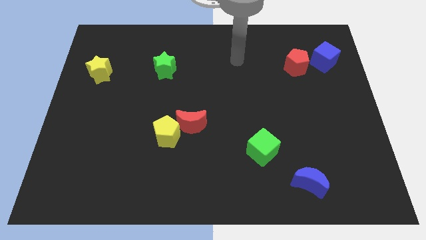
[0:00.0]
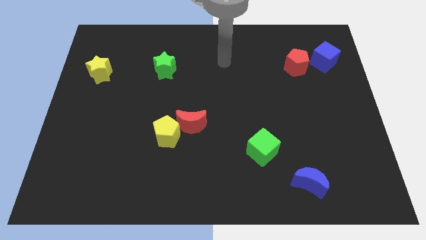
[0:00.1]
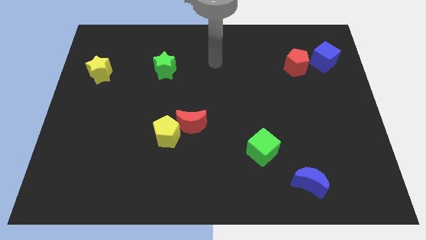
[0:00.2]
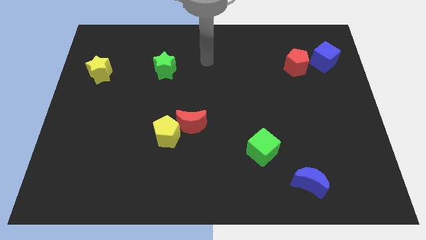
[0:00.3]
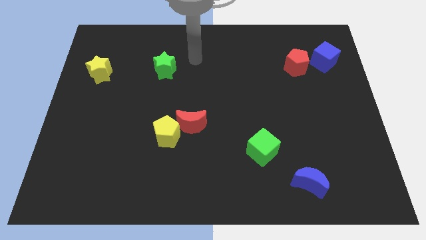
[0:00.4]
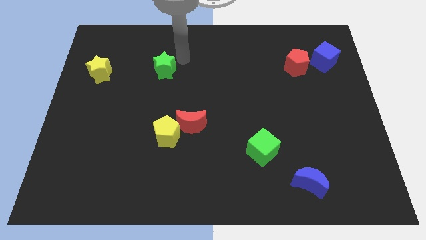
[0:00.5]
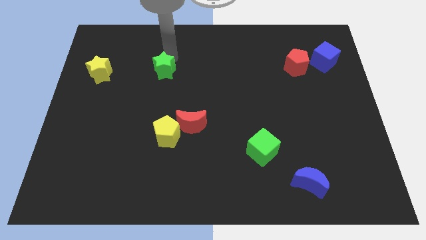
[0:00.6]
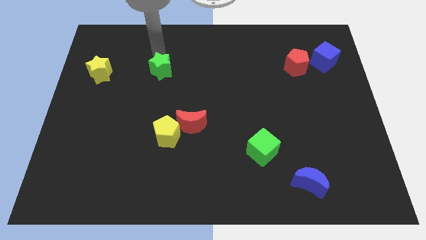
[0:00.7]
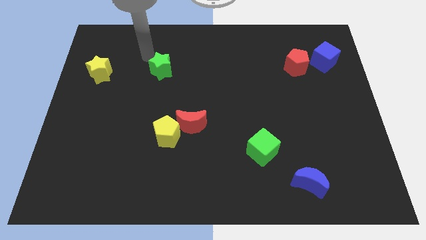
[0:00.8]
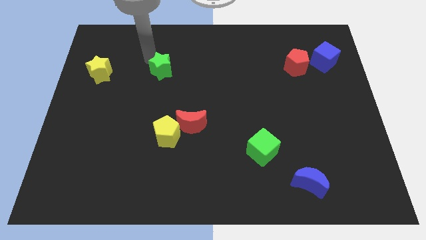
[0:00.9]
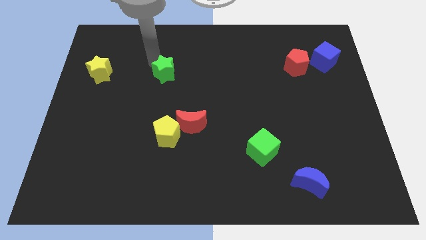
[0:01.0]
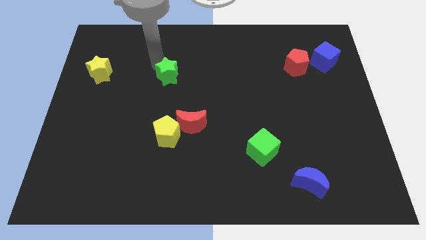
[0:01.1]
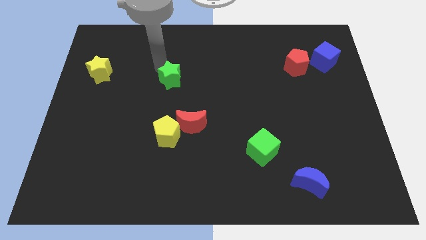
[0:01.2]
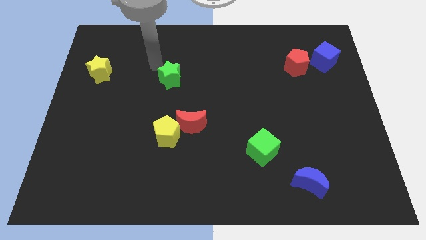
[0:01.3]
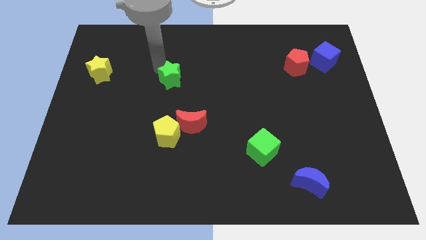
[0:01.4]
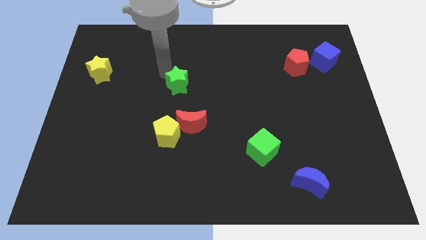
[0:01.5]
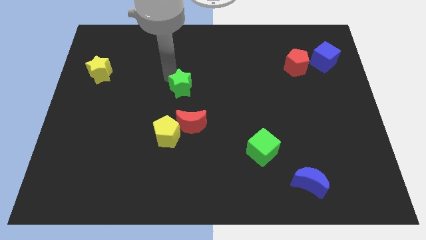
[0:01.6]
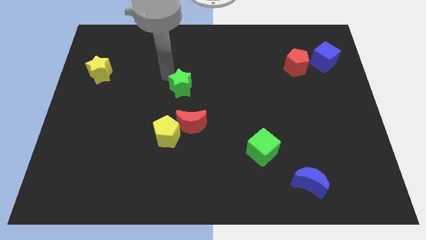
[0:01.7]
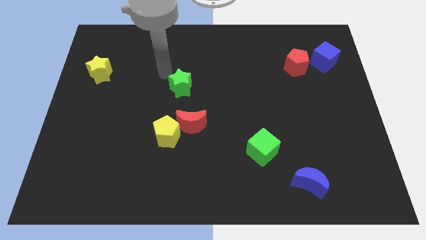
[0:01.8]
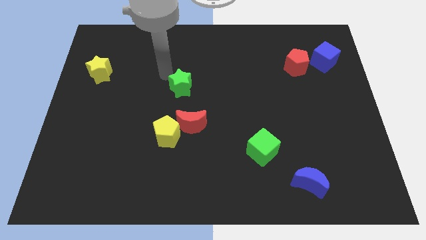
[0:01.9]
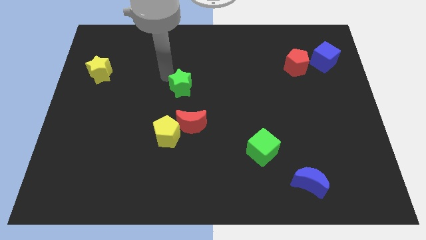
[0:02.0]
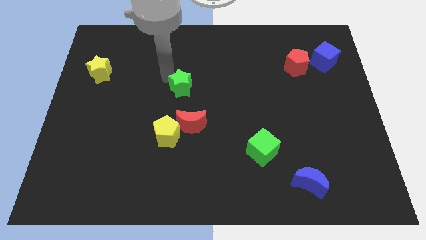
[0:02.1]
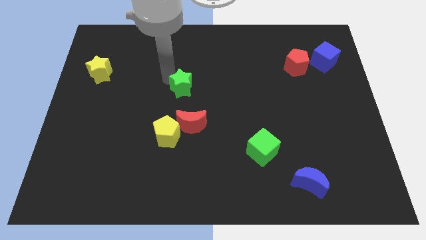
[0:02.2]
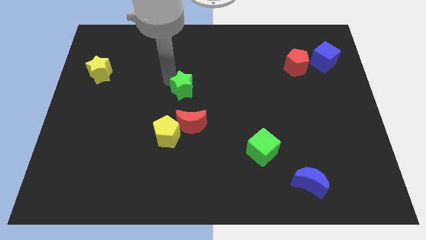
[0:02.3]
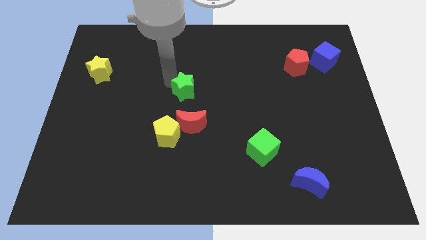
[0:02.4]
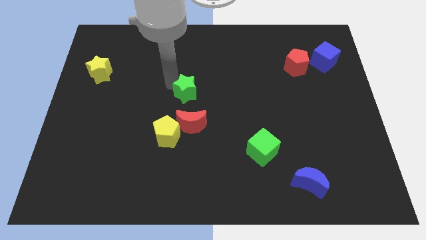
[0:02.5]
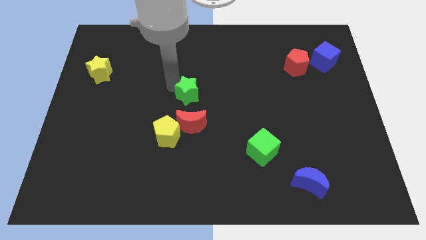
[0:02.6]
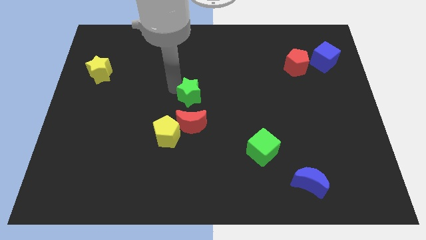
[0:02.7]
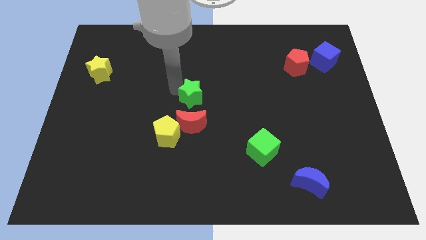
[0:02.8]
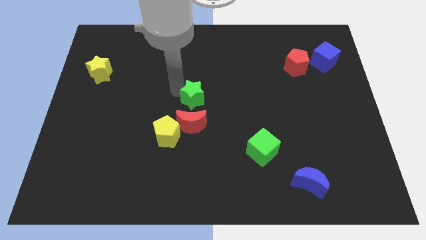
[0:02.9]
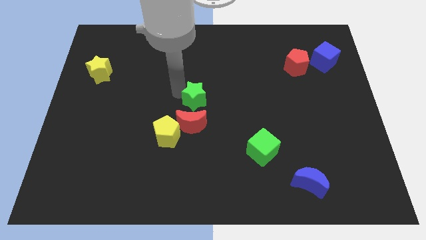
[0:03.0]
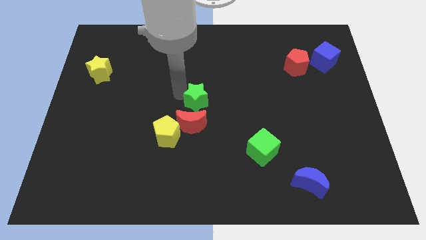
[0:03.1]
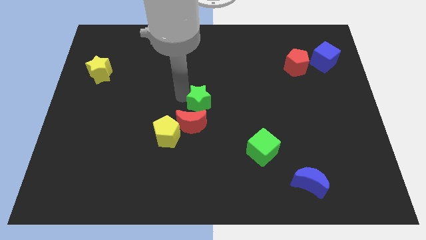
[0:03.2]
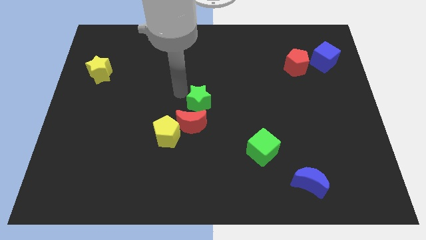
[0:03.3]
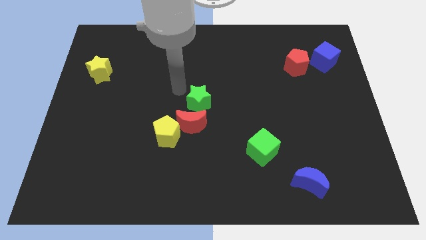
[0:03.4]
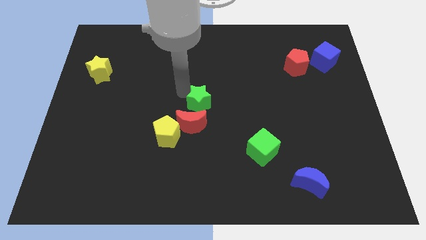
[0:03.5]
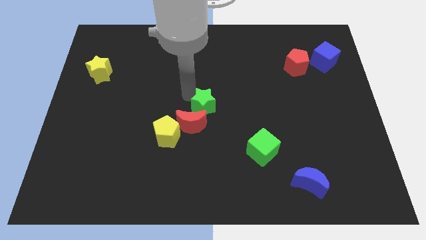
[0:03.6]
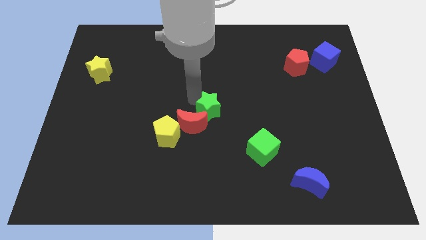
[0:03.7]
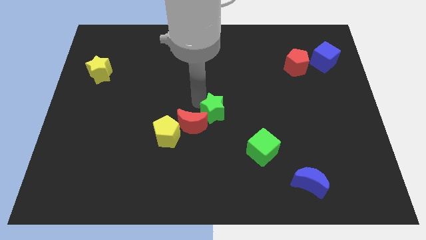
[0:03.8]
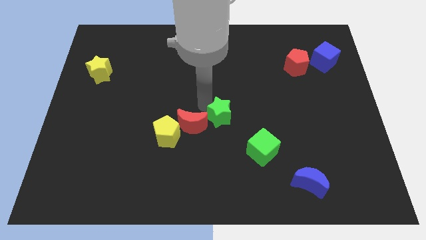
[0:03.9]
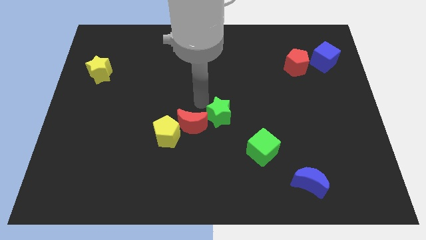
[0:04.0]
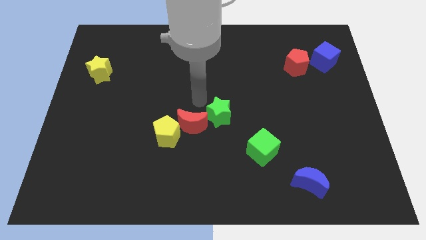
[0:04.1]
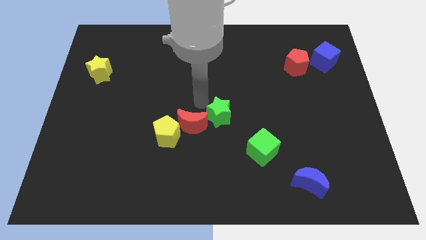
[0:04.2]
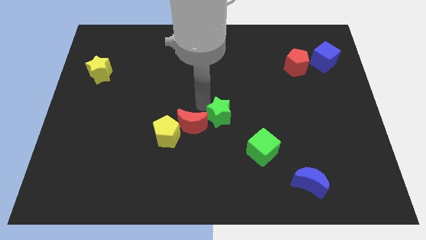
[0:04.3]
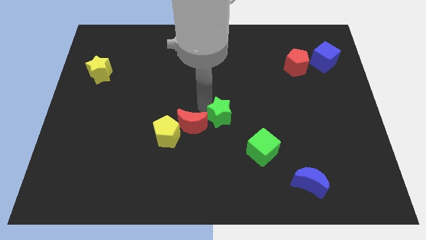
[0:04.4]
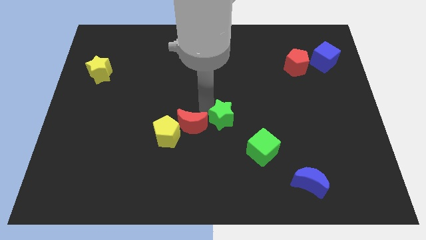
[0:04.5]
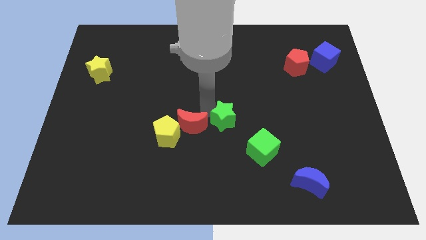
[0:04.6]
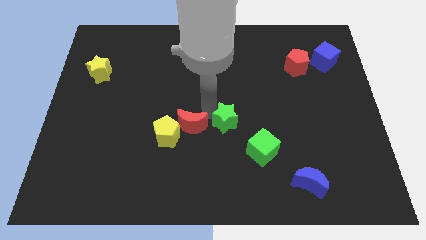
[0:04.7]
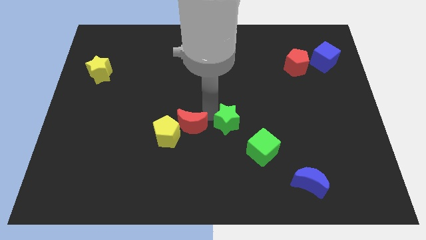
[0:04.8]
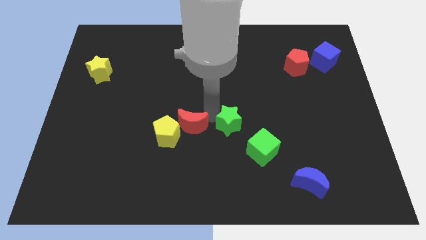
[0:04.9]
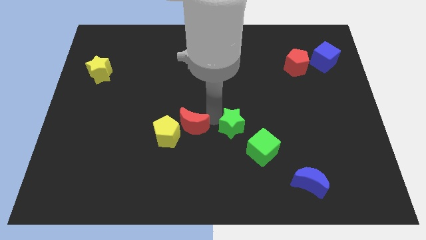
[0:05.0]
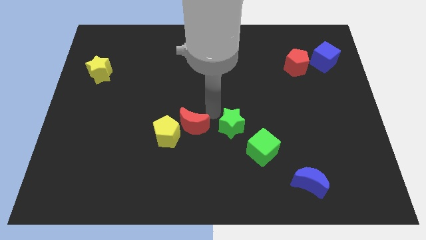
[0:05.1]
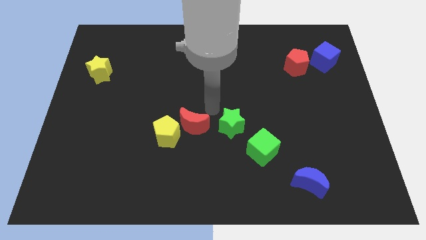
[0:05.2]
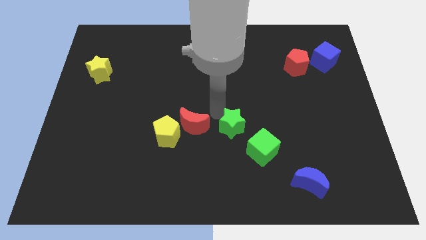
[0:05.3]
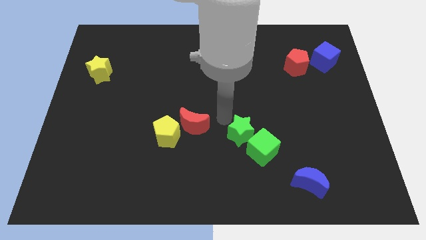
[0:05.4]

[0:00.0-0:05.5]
slide the green star to the green cube

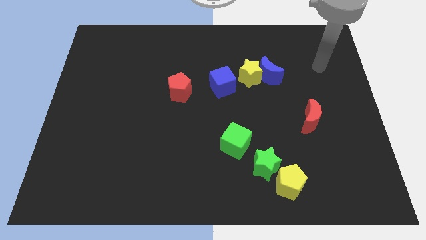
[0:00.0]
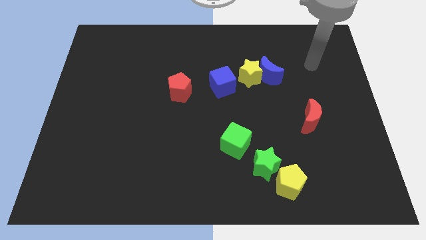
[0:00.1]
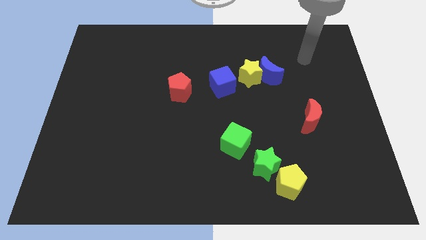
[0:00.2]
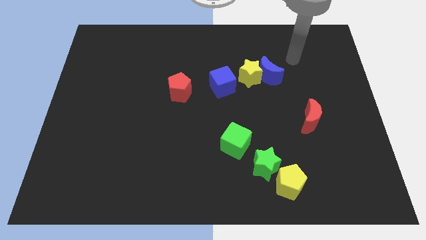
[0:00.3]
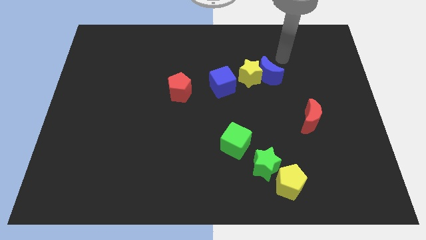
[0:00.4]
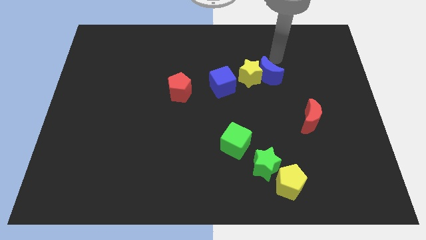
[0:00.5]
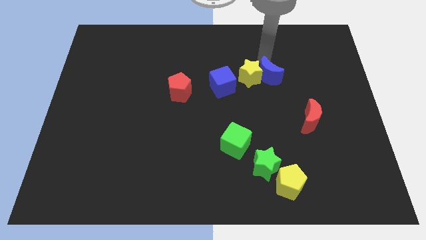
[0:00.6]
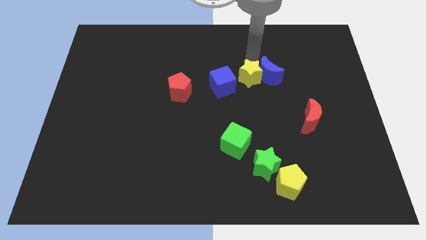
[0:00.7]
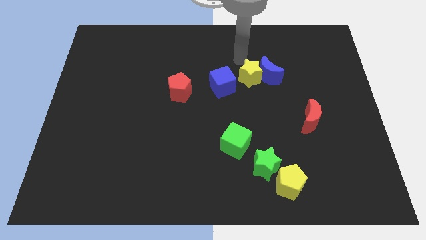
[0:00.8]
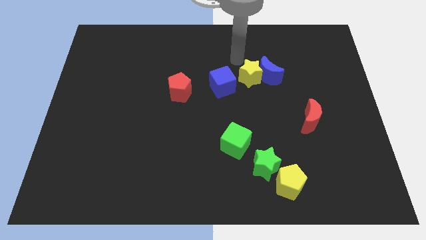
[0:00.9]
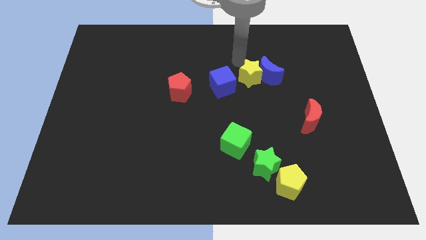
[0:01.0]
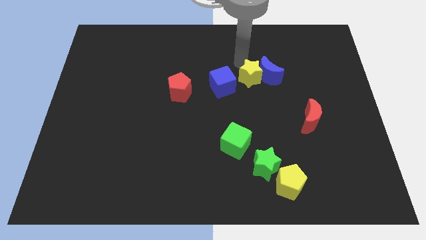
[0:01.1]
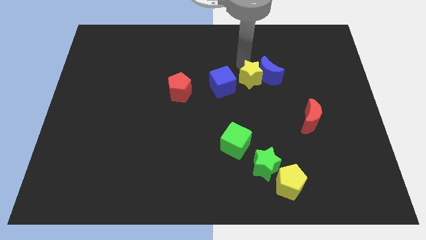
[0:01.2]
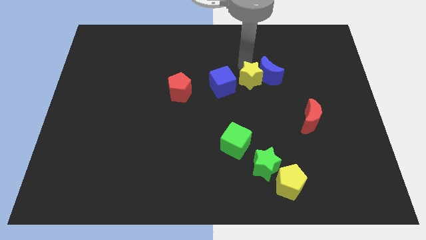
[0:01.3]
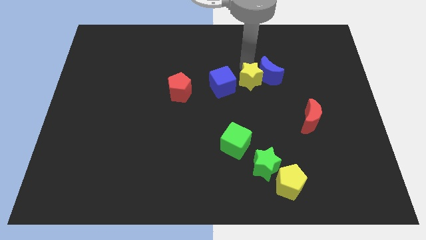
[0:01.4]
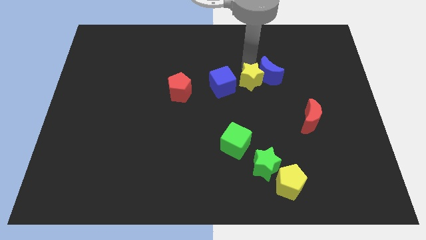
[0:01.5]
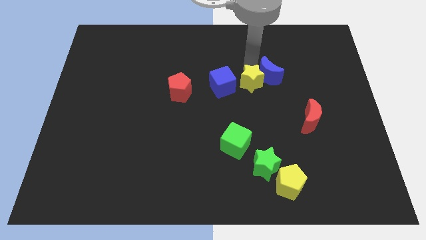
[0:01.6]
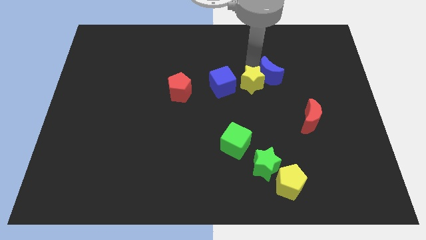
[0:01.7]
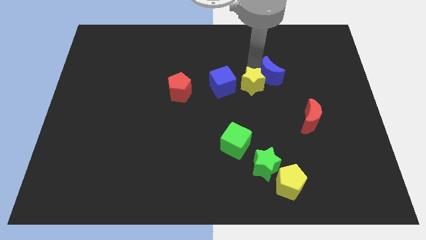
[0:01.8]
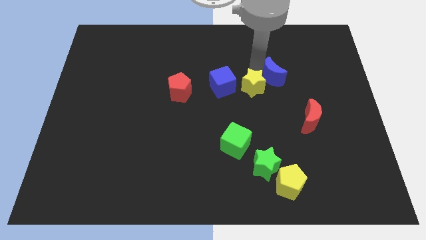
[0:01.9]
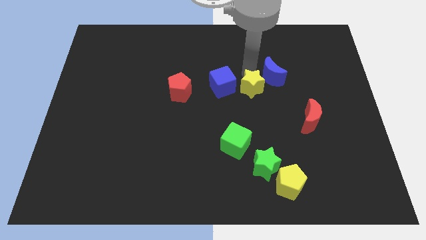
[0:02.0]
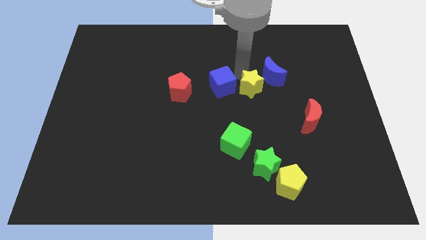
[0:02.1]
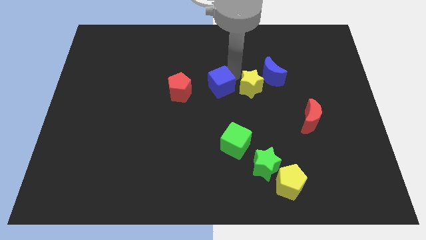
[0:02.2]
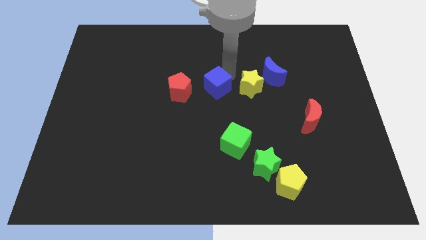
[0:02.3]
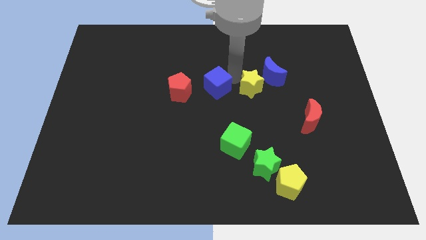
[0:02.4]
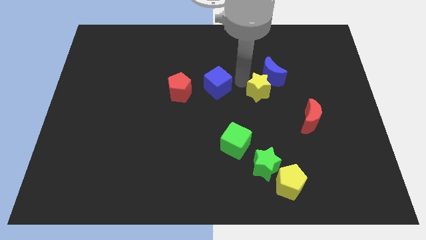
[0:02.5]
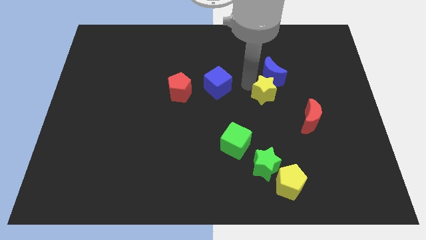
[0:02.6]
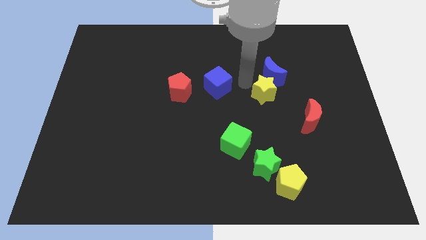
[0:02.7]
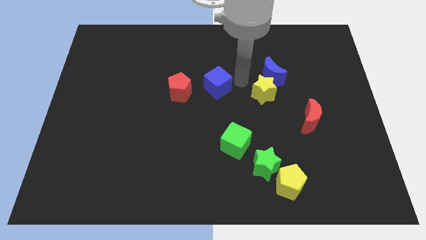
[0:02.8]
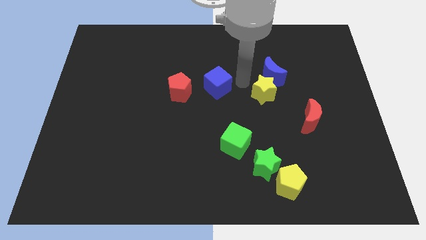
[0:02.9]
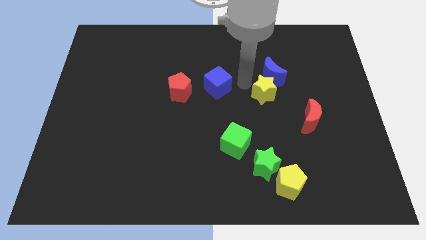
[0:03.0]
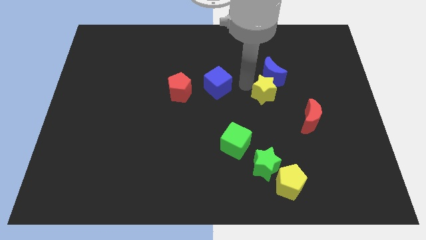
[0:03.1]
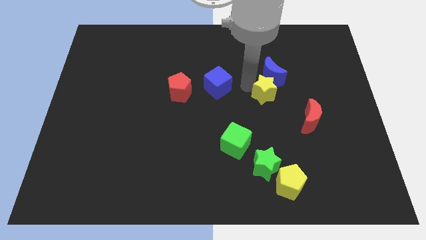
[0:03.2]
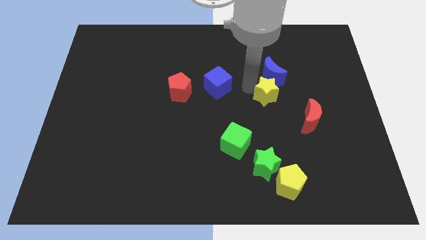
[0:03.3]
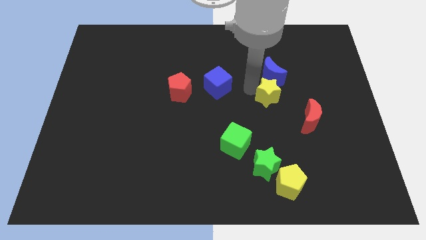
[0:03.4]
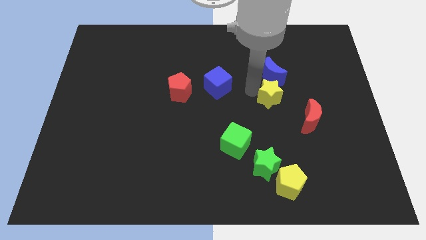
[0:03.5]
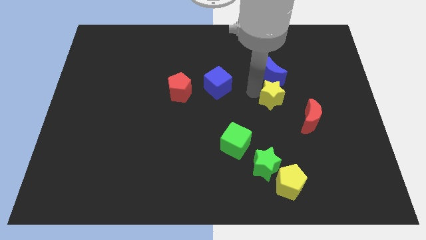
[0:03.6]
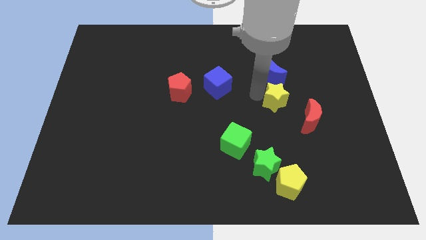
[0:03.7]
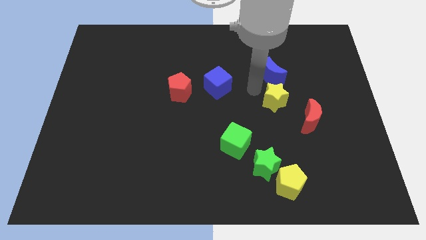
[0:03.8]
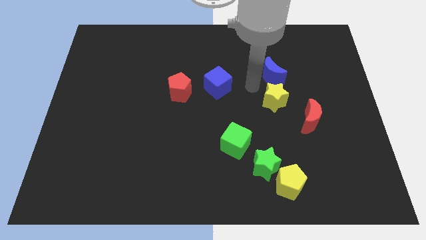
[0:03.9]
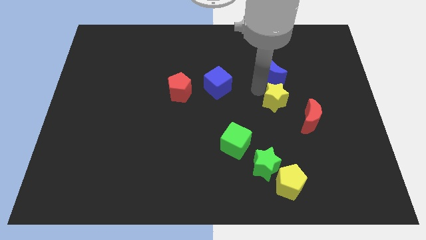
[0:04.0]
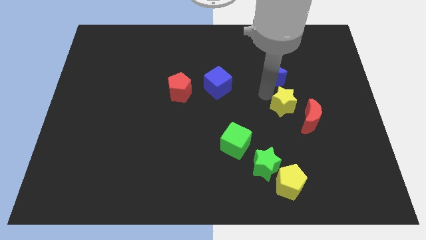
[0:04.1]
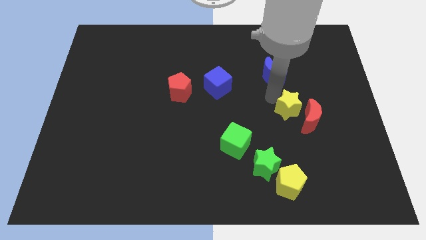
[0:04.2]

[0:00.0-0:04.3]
put the yellow star to the red moon
